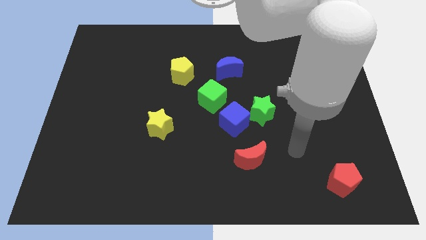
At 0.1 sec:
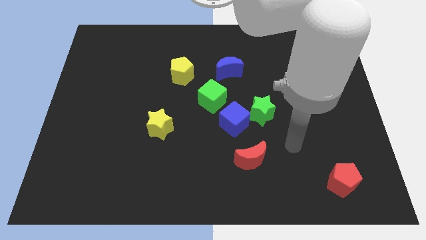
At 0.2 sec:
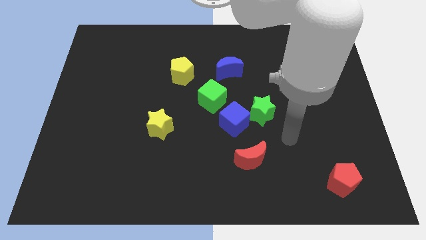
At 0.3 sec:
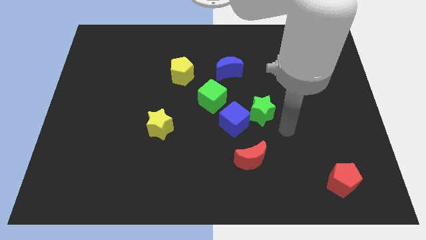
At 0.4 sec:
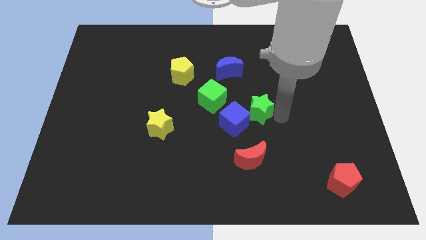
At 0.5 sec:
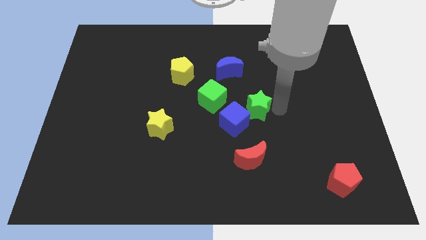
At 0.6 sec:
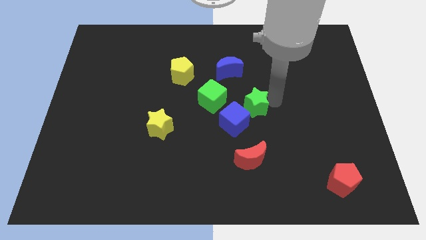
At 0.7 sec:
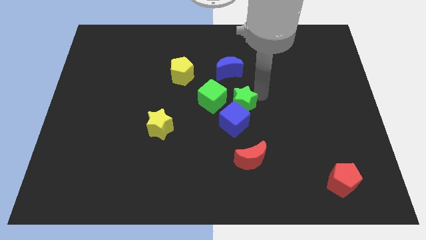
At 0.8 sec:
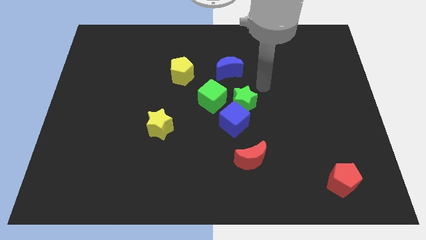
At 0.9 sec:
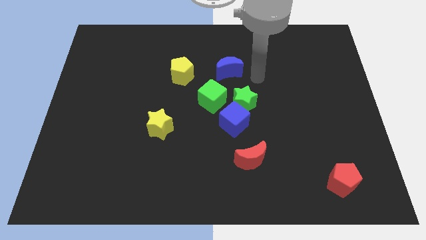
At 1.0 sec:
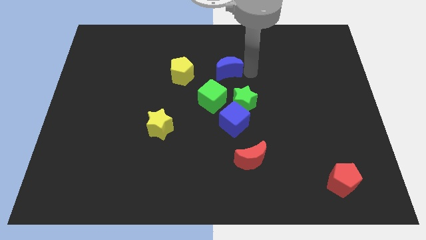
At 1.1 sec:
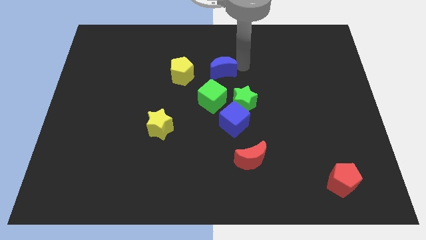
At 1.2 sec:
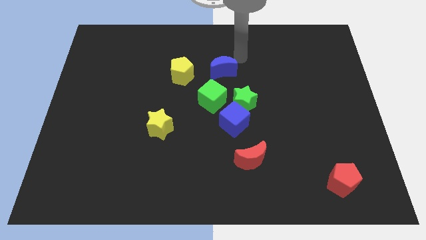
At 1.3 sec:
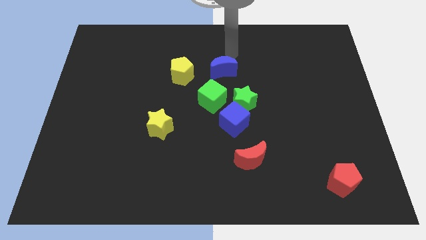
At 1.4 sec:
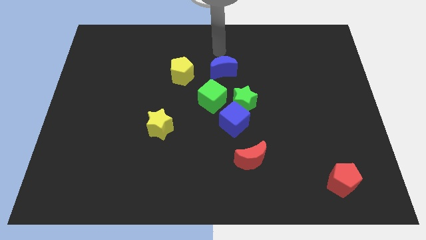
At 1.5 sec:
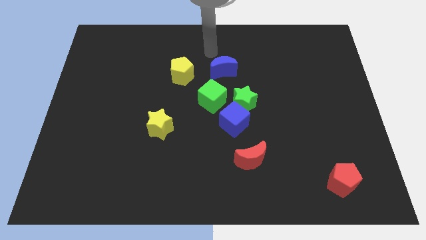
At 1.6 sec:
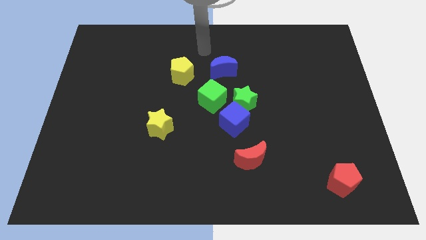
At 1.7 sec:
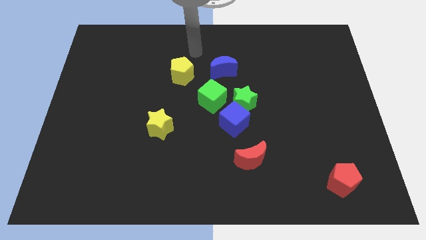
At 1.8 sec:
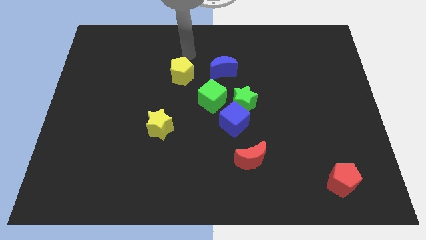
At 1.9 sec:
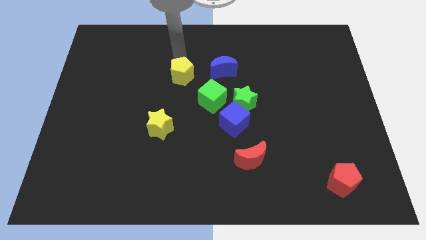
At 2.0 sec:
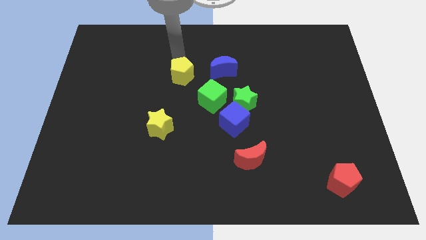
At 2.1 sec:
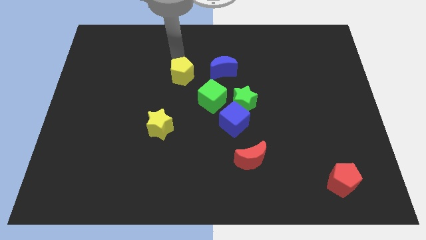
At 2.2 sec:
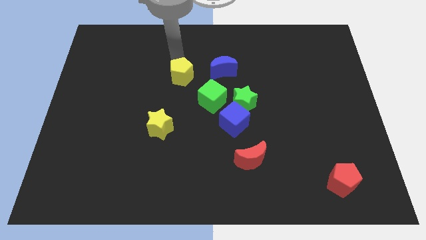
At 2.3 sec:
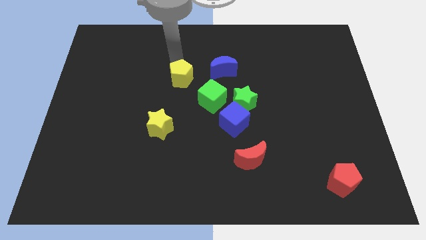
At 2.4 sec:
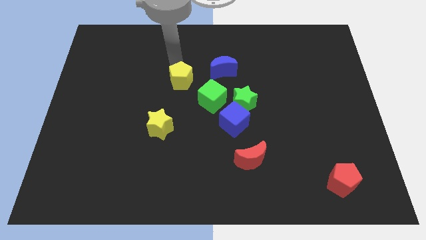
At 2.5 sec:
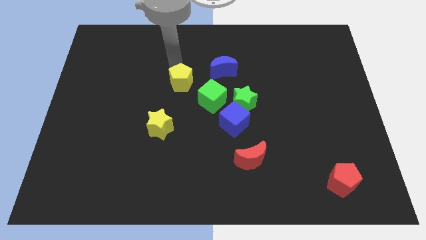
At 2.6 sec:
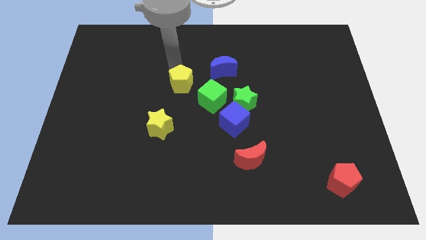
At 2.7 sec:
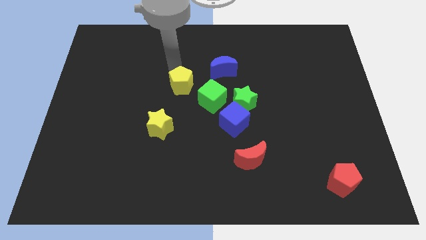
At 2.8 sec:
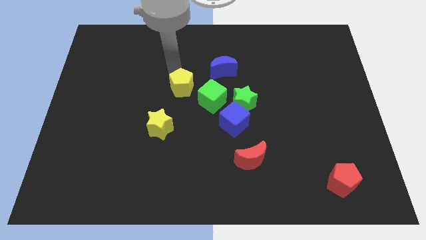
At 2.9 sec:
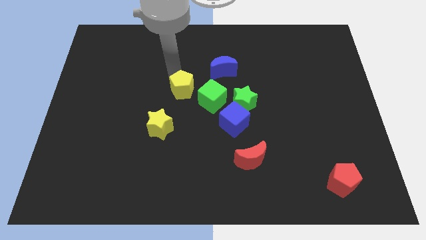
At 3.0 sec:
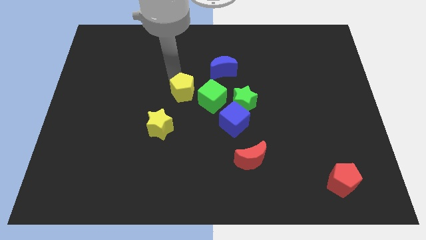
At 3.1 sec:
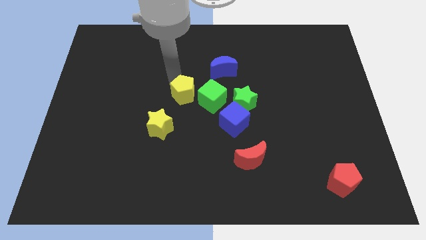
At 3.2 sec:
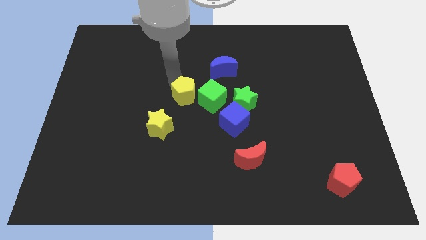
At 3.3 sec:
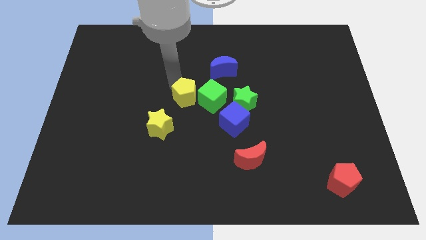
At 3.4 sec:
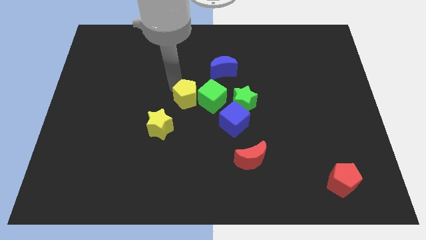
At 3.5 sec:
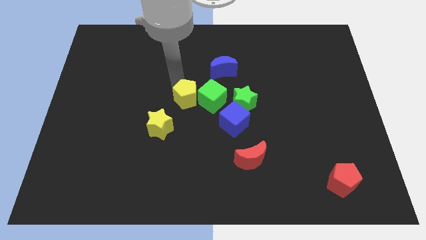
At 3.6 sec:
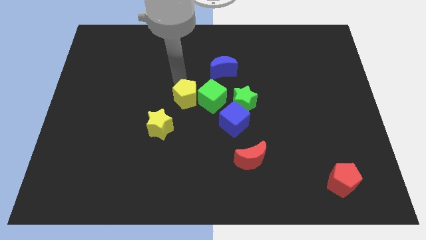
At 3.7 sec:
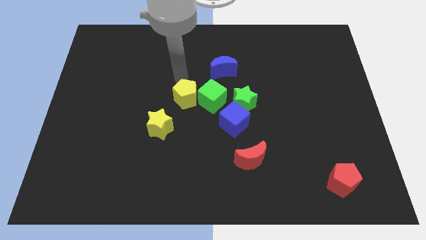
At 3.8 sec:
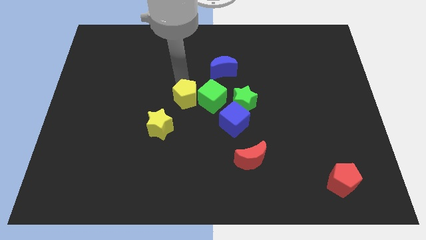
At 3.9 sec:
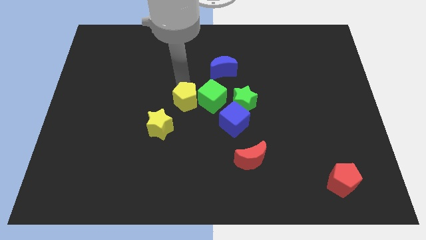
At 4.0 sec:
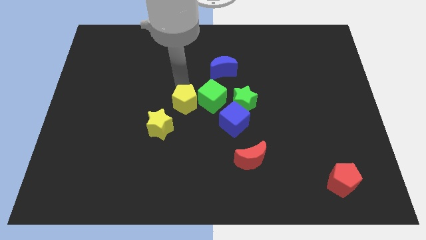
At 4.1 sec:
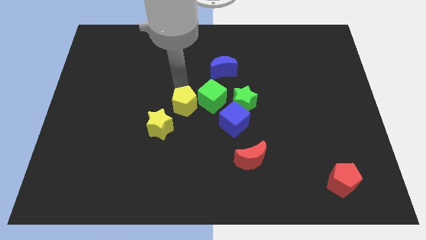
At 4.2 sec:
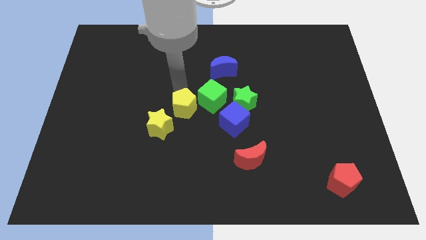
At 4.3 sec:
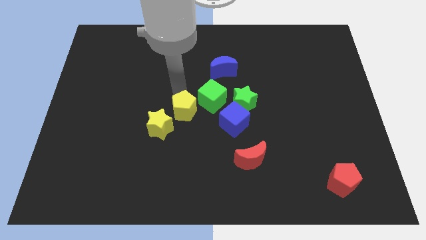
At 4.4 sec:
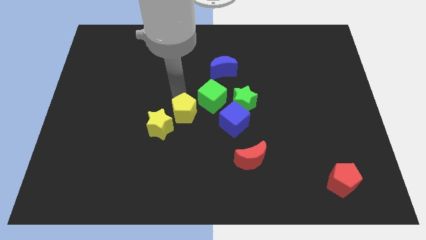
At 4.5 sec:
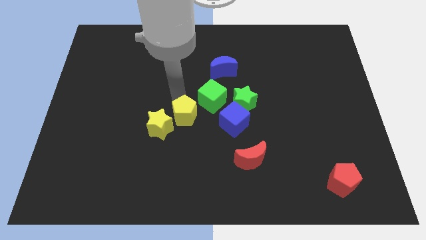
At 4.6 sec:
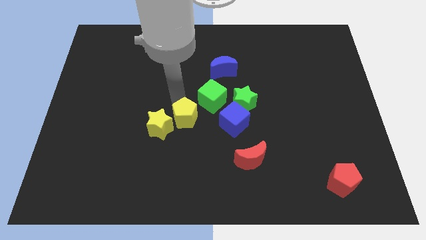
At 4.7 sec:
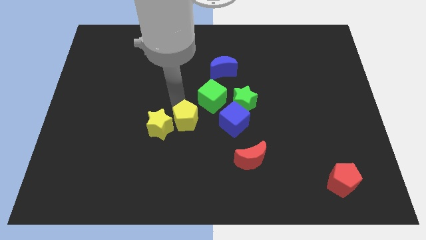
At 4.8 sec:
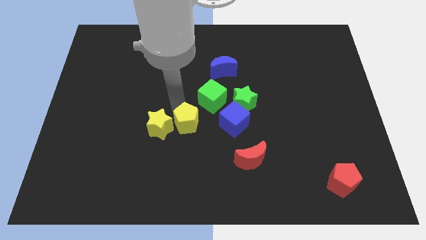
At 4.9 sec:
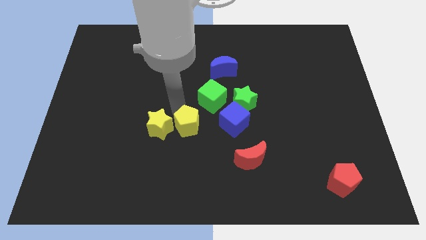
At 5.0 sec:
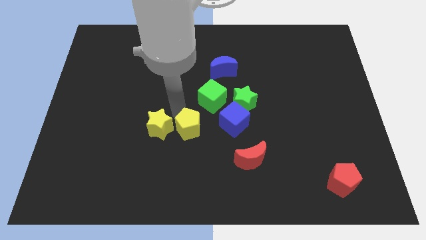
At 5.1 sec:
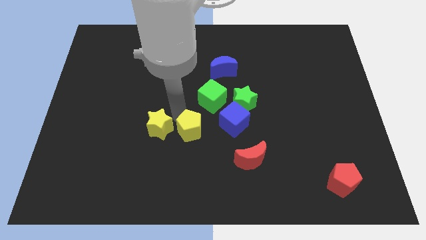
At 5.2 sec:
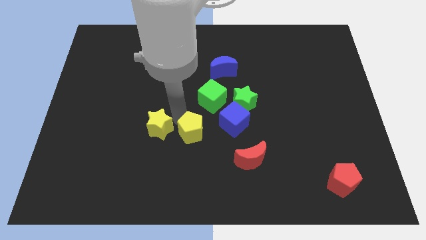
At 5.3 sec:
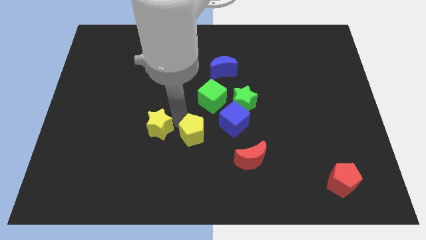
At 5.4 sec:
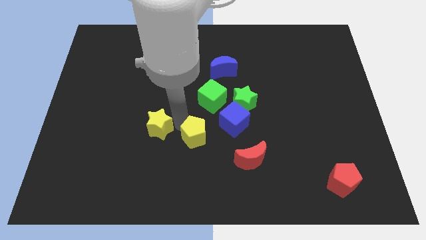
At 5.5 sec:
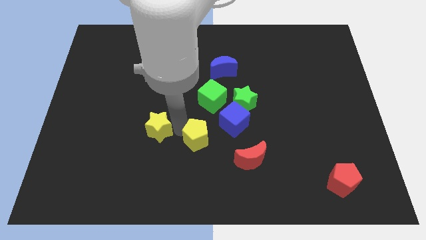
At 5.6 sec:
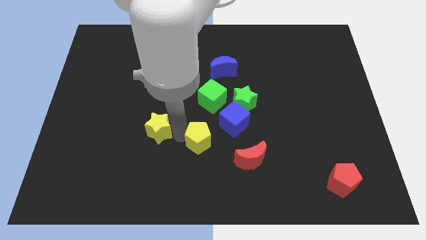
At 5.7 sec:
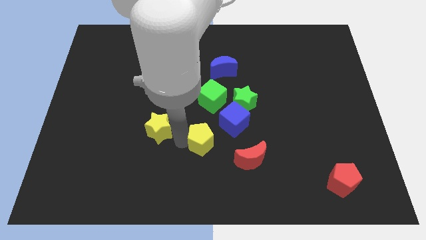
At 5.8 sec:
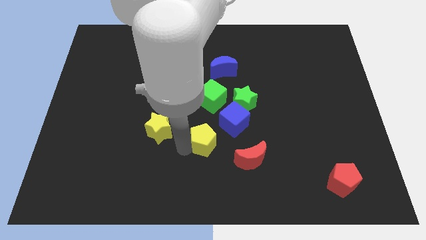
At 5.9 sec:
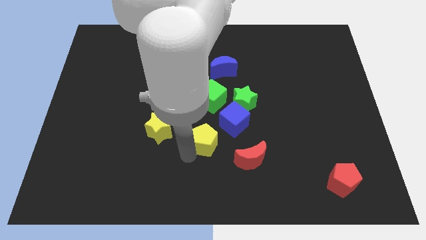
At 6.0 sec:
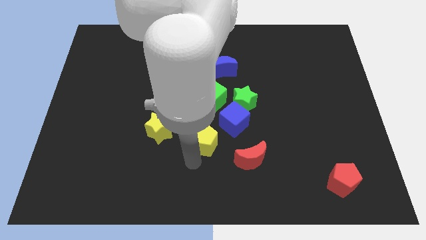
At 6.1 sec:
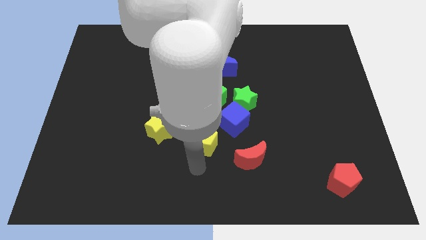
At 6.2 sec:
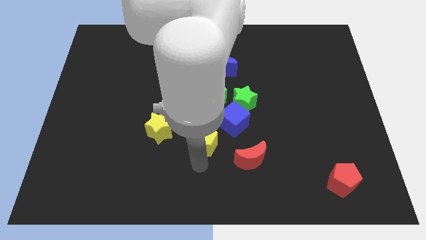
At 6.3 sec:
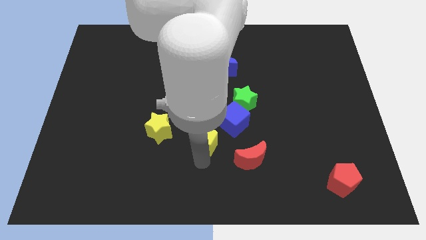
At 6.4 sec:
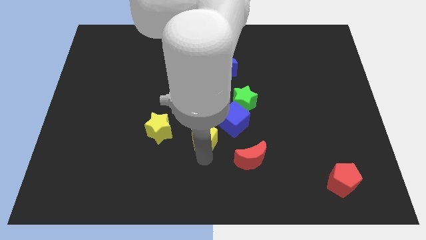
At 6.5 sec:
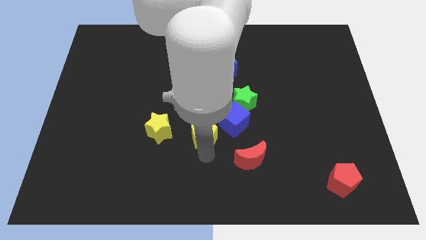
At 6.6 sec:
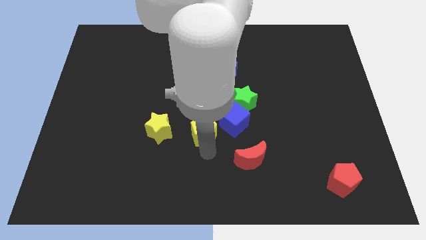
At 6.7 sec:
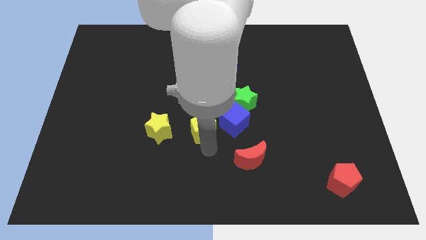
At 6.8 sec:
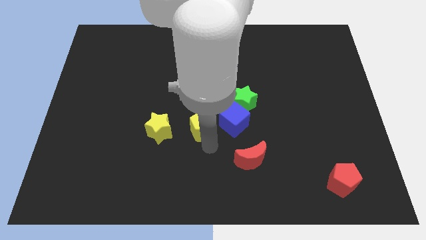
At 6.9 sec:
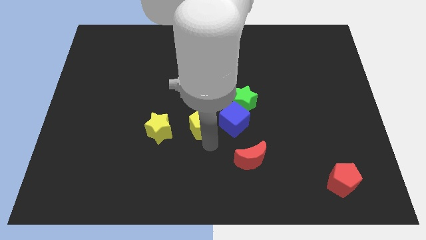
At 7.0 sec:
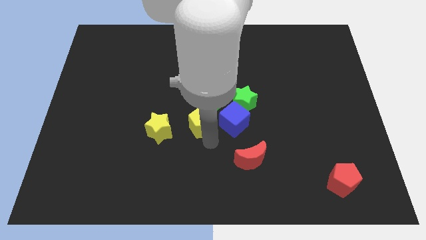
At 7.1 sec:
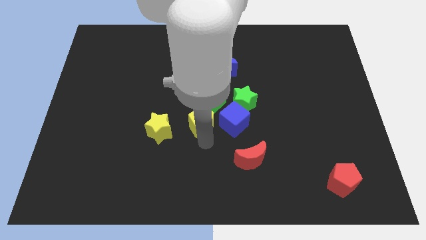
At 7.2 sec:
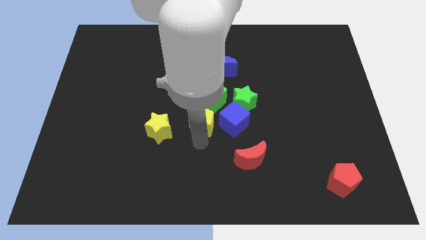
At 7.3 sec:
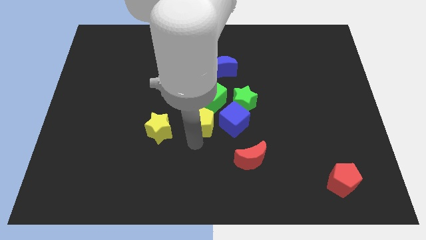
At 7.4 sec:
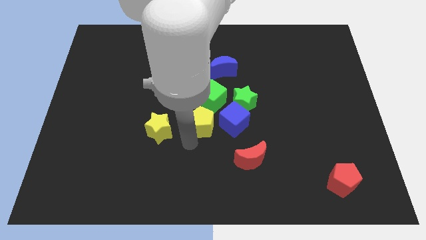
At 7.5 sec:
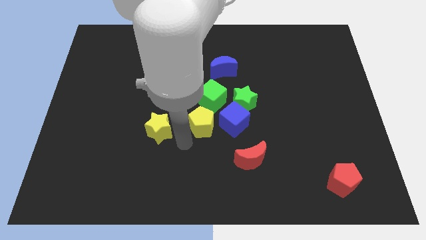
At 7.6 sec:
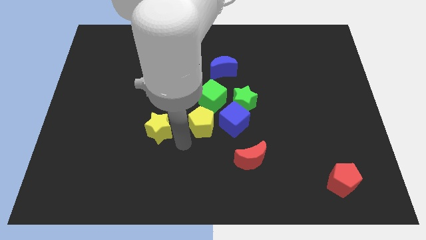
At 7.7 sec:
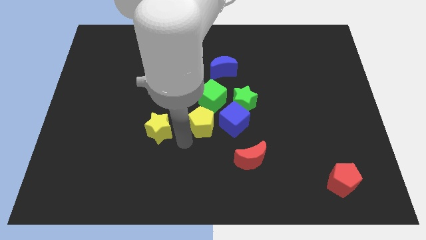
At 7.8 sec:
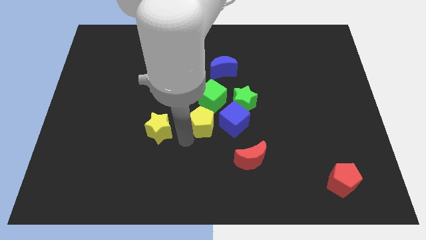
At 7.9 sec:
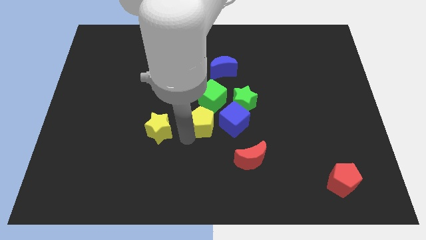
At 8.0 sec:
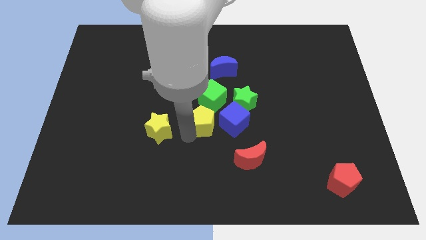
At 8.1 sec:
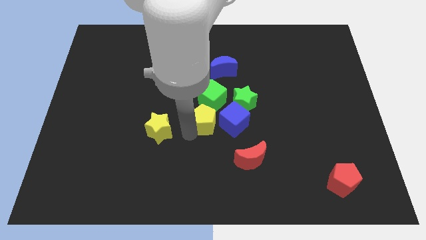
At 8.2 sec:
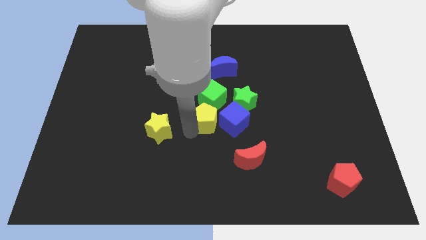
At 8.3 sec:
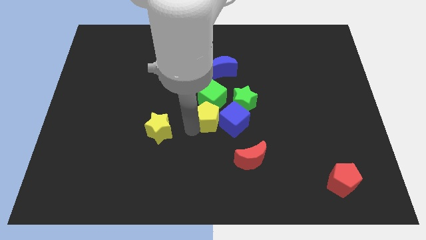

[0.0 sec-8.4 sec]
move the yellow pentagon towards the blue cube

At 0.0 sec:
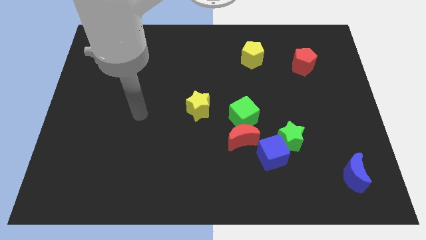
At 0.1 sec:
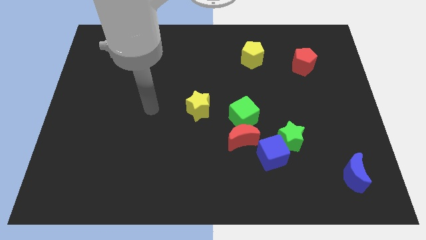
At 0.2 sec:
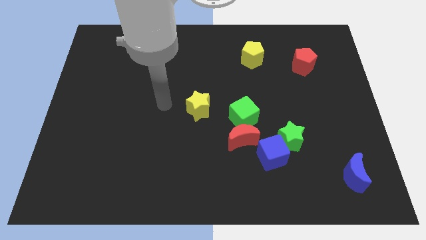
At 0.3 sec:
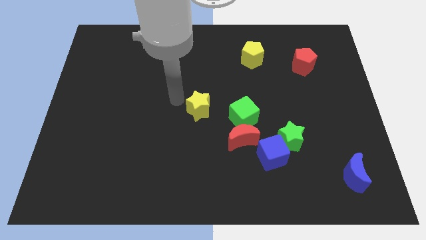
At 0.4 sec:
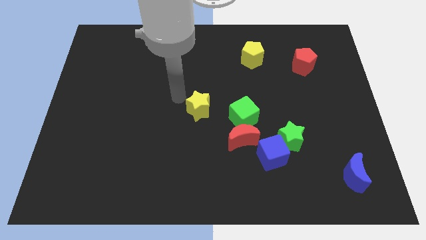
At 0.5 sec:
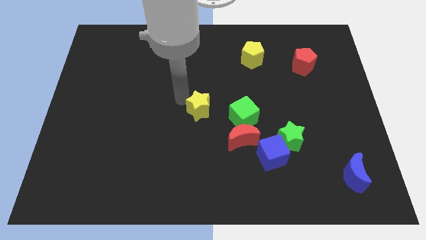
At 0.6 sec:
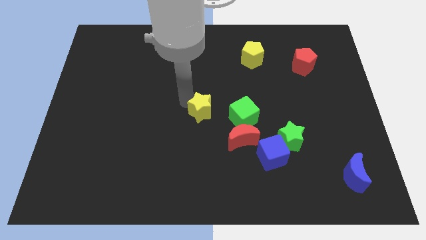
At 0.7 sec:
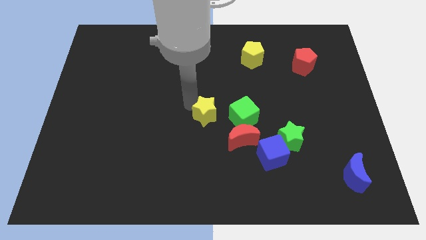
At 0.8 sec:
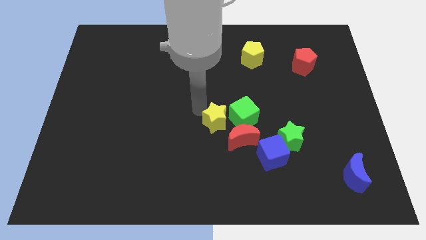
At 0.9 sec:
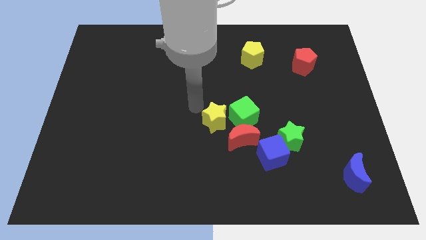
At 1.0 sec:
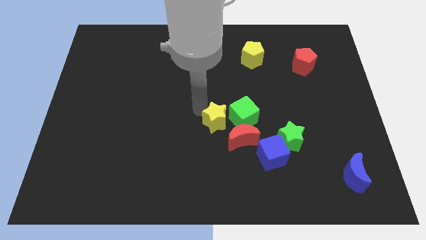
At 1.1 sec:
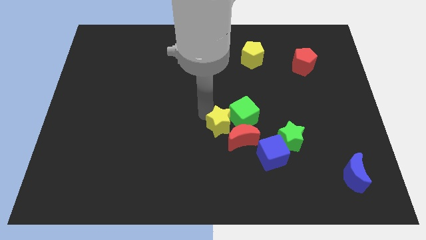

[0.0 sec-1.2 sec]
put the yellow star to the red moon
